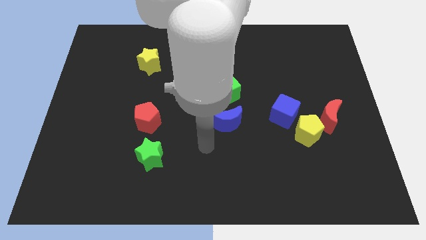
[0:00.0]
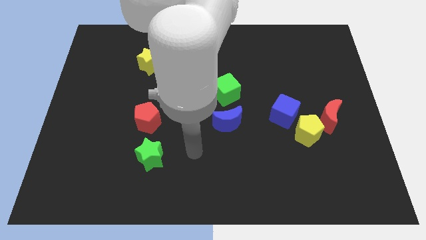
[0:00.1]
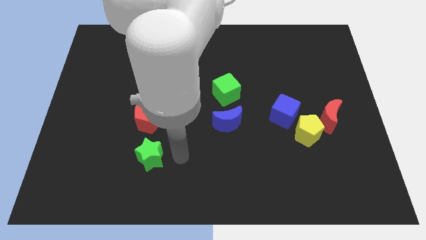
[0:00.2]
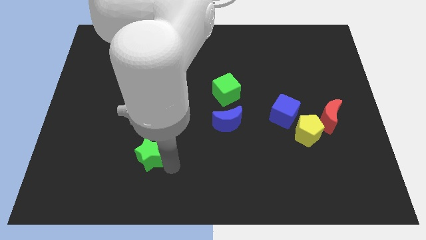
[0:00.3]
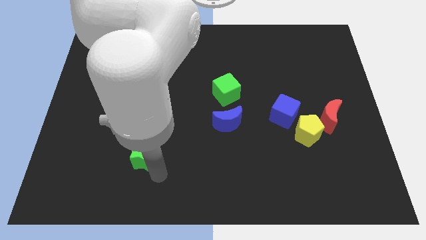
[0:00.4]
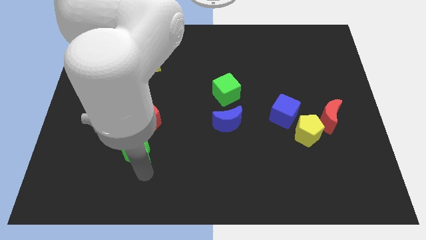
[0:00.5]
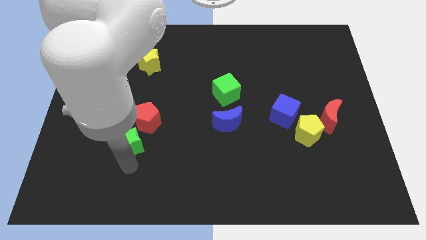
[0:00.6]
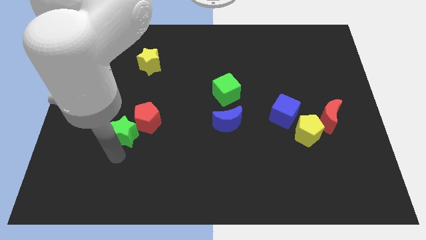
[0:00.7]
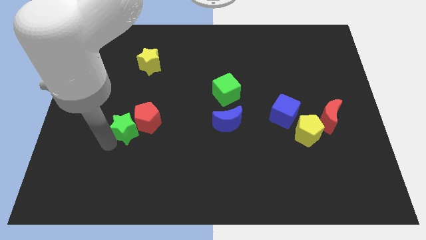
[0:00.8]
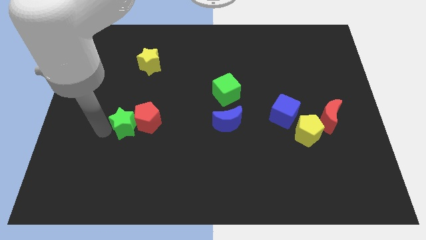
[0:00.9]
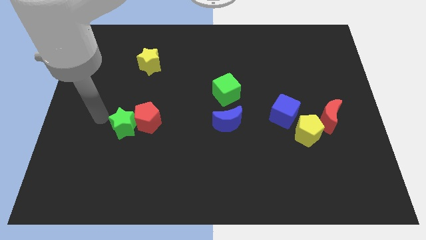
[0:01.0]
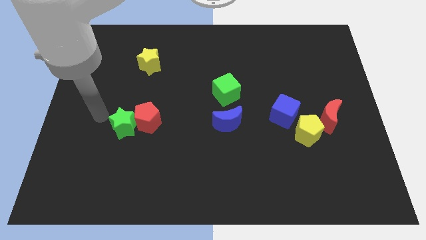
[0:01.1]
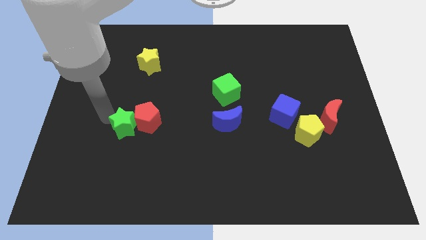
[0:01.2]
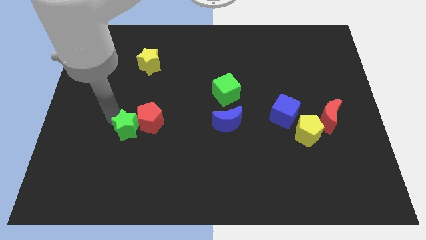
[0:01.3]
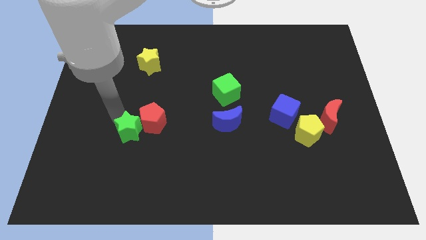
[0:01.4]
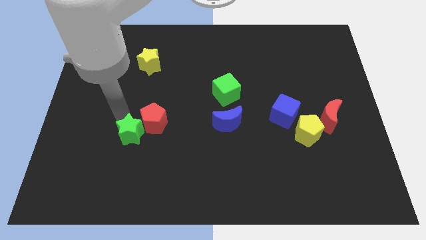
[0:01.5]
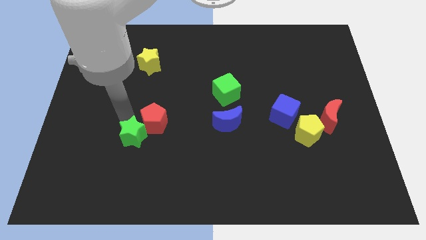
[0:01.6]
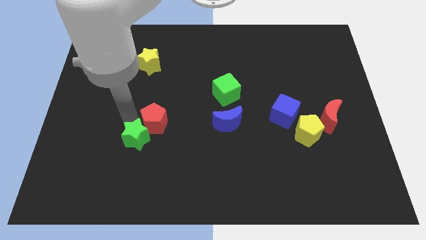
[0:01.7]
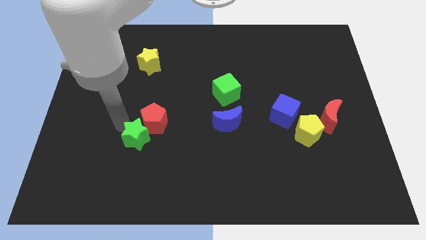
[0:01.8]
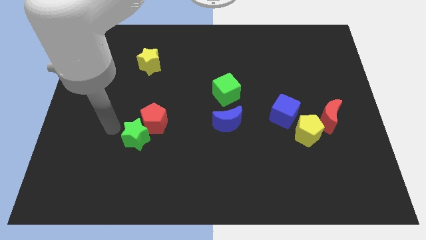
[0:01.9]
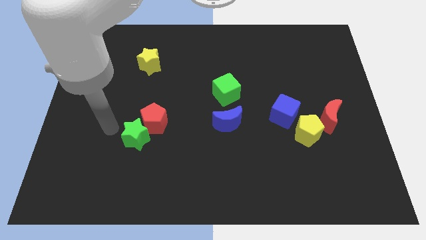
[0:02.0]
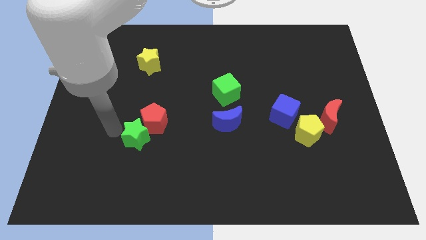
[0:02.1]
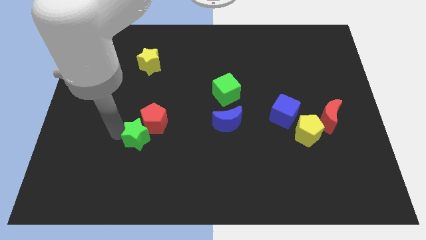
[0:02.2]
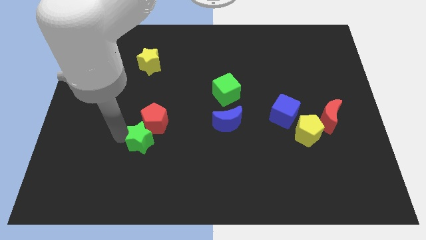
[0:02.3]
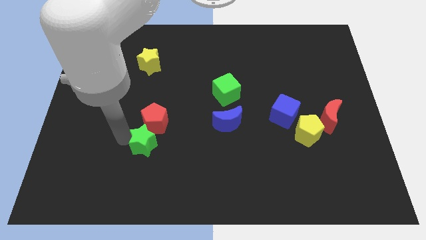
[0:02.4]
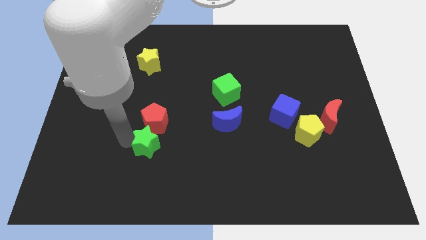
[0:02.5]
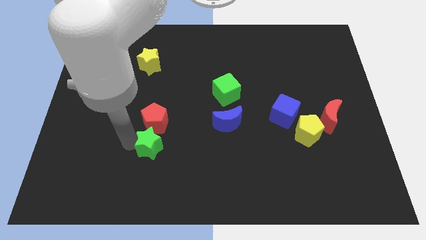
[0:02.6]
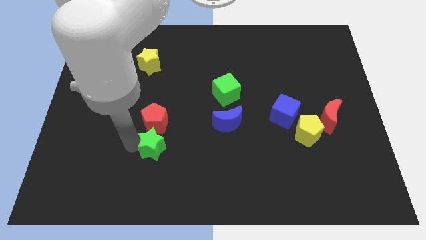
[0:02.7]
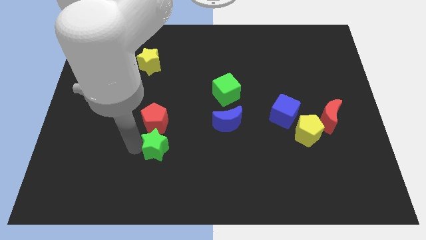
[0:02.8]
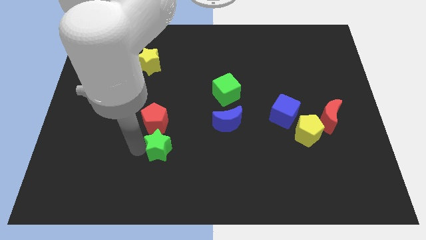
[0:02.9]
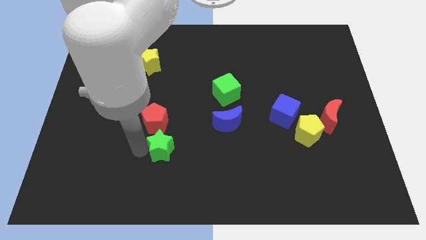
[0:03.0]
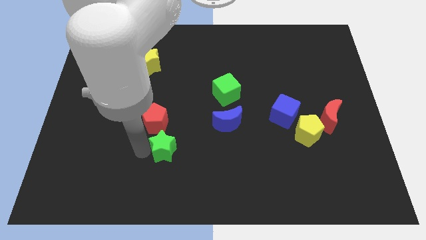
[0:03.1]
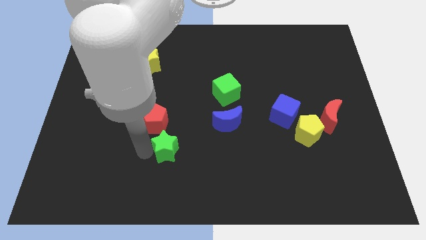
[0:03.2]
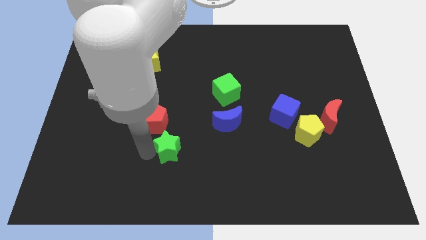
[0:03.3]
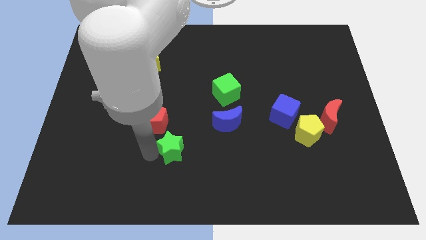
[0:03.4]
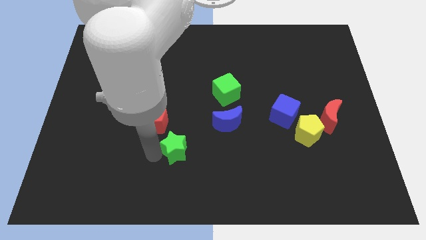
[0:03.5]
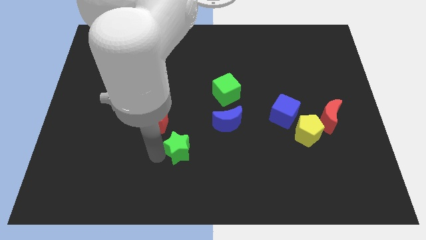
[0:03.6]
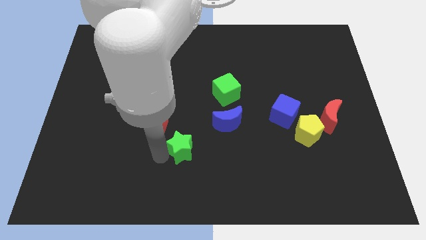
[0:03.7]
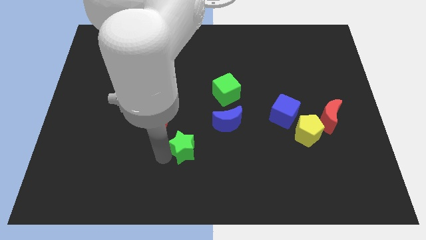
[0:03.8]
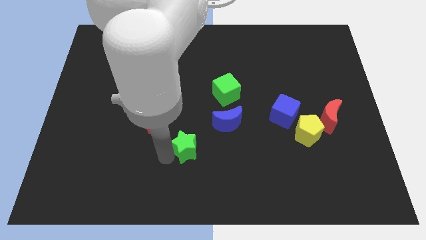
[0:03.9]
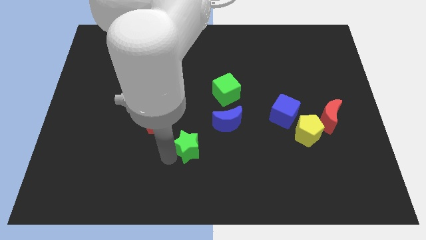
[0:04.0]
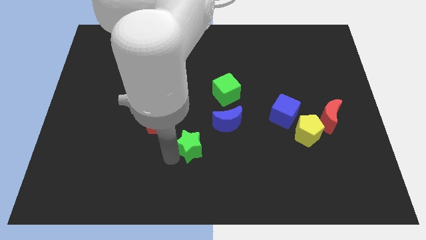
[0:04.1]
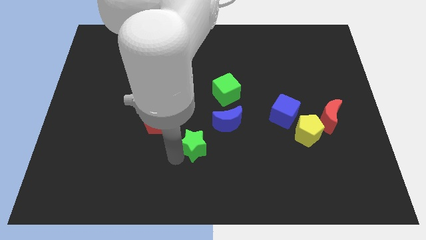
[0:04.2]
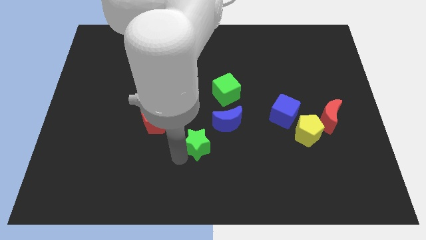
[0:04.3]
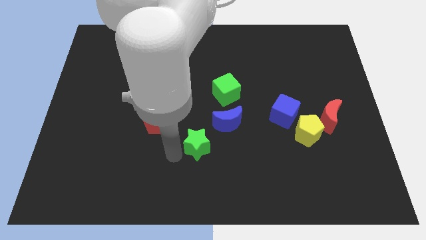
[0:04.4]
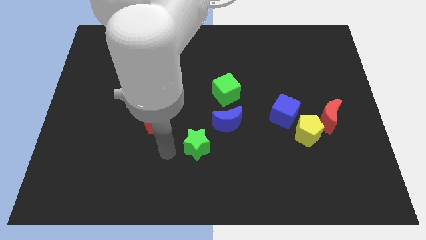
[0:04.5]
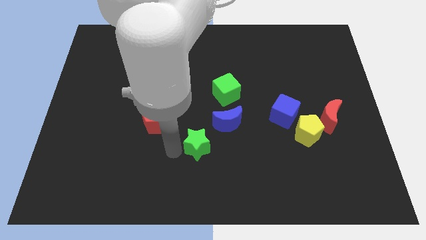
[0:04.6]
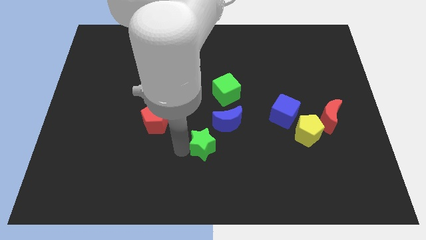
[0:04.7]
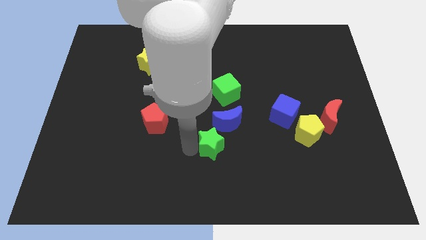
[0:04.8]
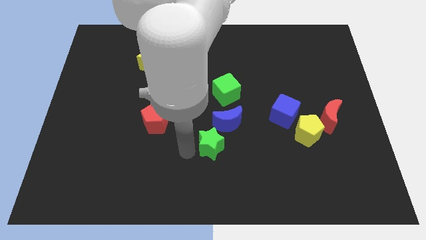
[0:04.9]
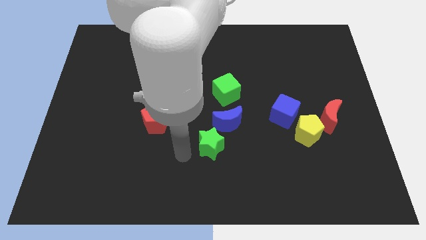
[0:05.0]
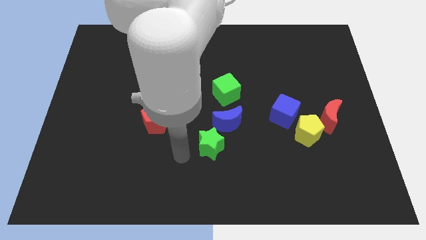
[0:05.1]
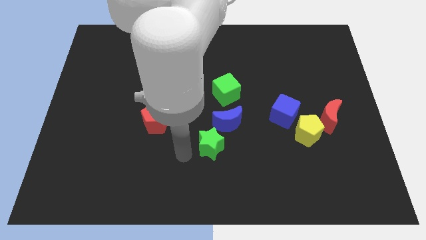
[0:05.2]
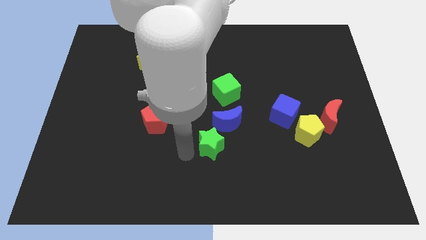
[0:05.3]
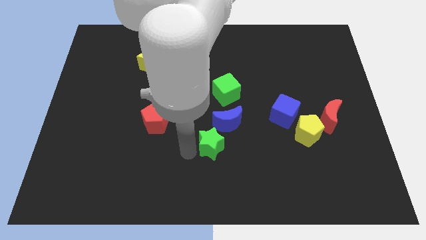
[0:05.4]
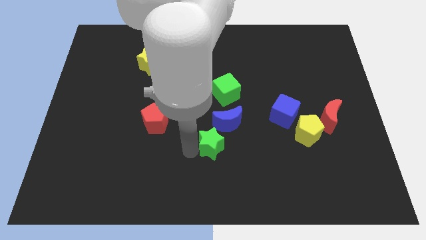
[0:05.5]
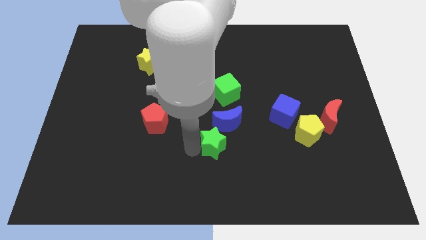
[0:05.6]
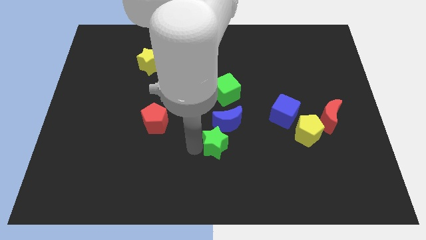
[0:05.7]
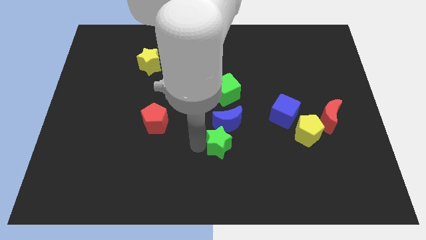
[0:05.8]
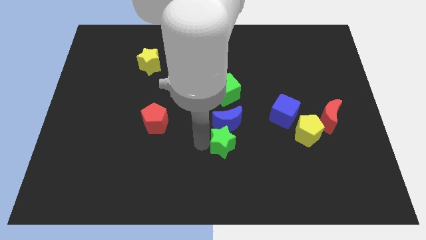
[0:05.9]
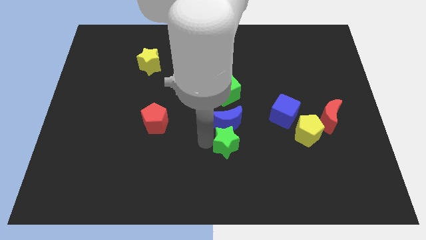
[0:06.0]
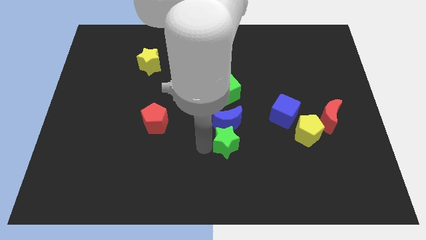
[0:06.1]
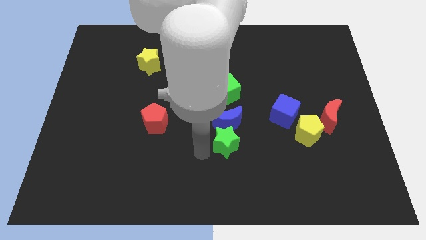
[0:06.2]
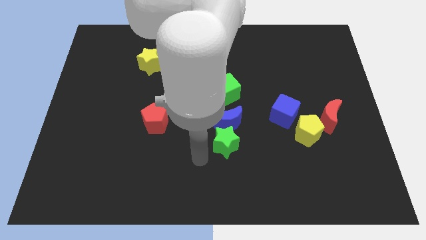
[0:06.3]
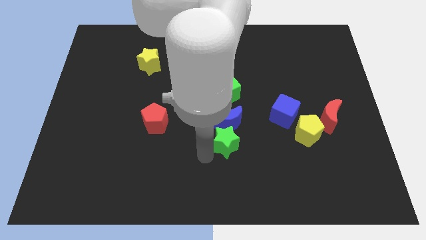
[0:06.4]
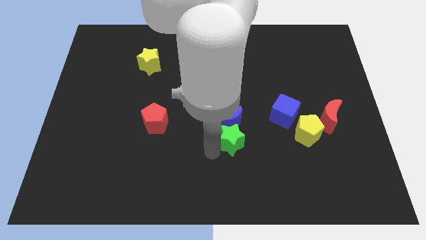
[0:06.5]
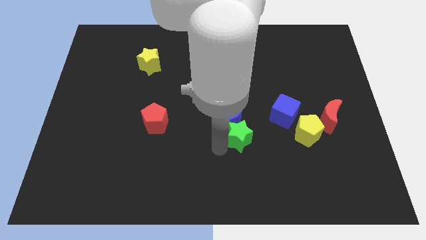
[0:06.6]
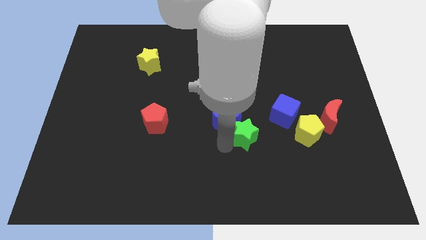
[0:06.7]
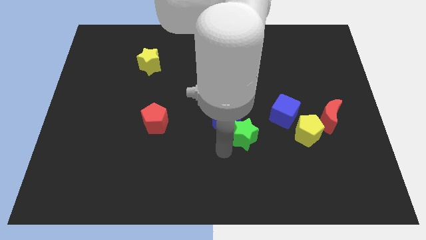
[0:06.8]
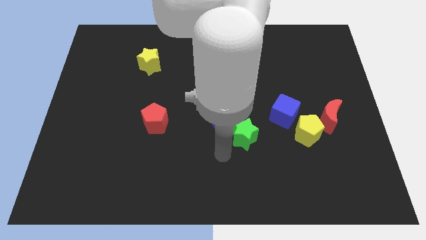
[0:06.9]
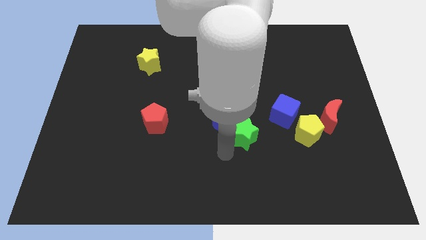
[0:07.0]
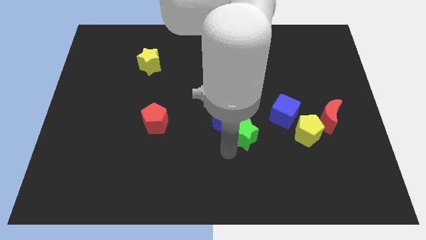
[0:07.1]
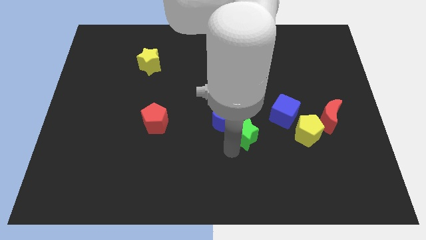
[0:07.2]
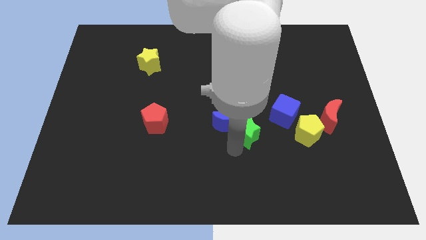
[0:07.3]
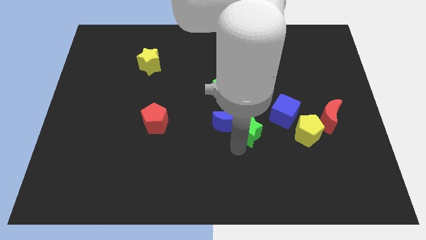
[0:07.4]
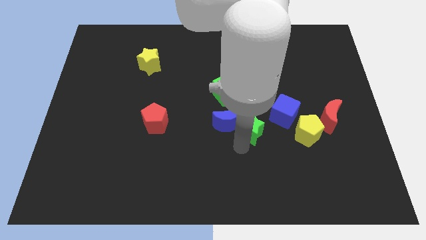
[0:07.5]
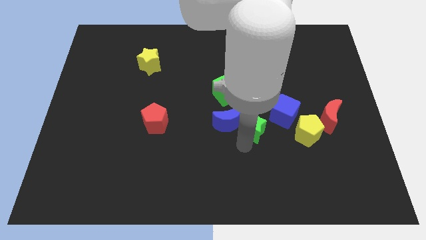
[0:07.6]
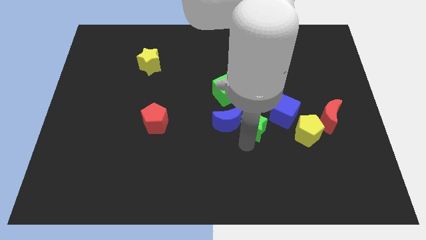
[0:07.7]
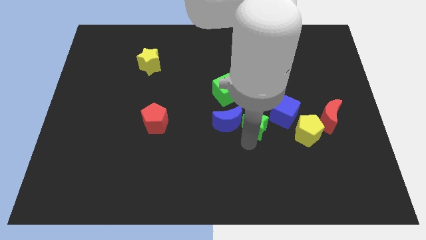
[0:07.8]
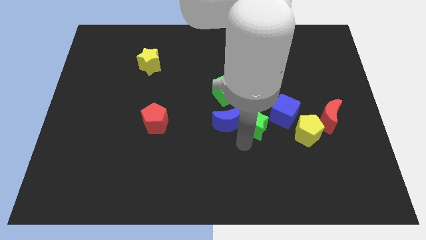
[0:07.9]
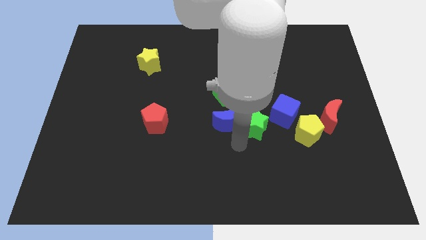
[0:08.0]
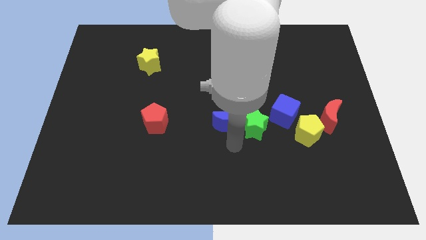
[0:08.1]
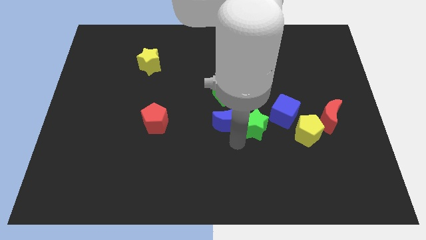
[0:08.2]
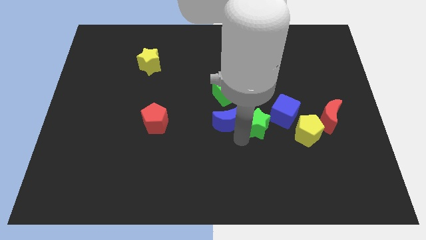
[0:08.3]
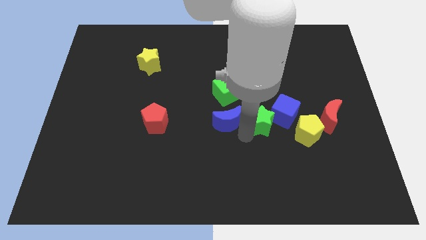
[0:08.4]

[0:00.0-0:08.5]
move the green star to the left side of the red moon
